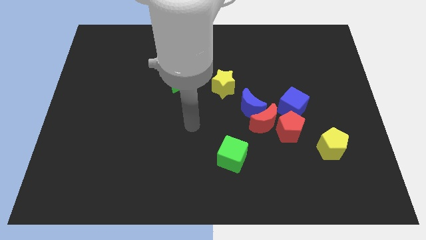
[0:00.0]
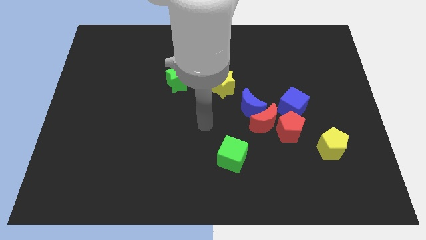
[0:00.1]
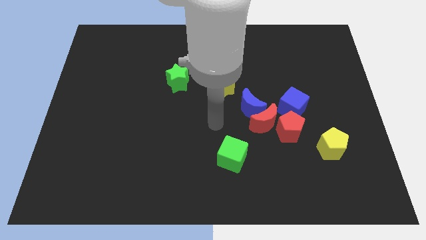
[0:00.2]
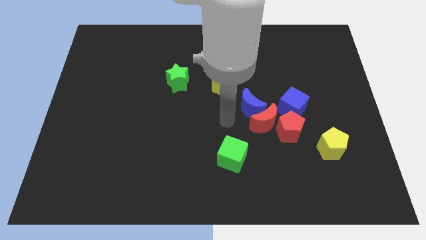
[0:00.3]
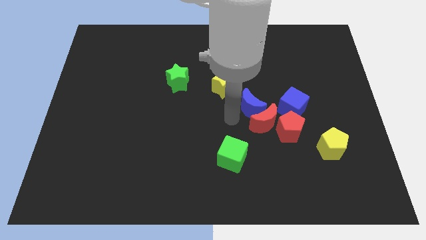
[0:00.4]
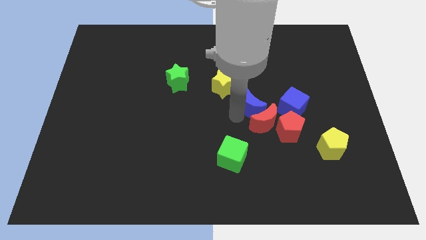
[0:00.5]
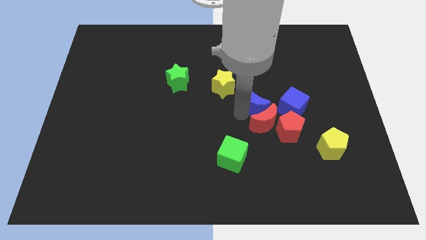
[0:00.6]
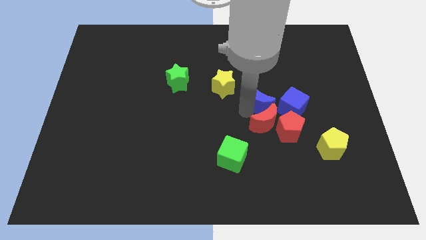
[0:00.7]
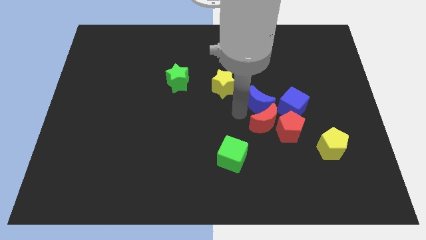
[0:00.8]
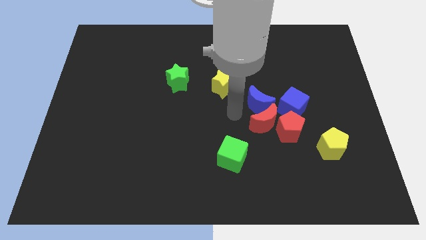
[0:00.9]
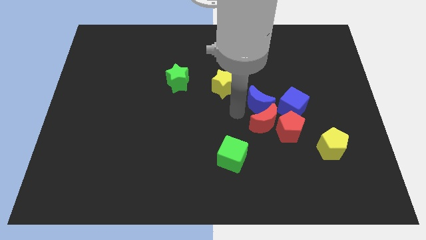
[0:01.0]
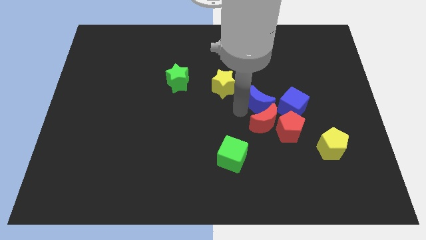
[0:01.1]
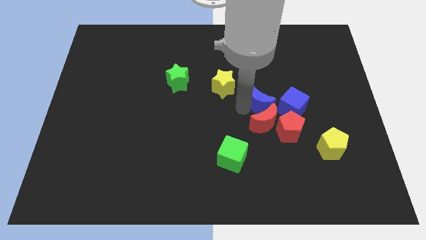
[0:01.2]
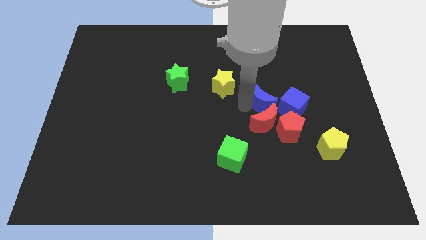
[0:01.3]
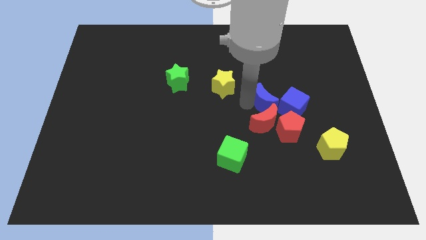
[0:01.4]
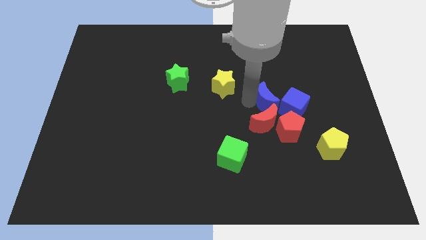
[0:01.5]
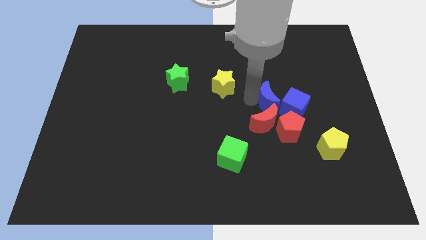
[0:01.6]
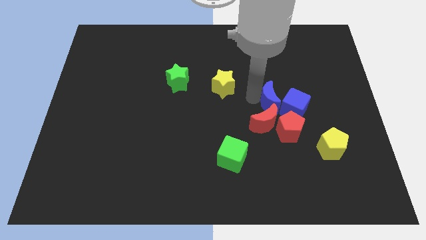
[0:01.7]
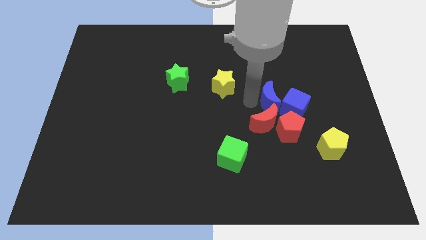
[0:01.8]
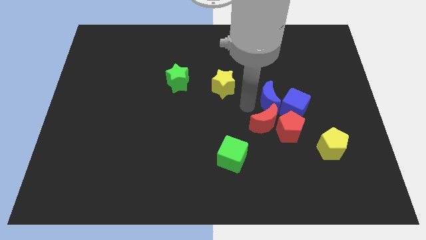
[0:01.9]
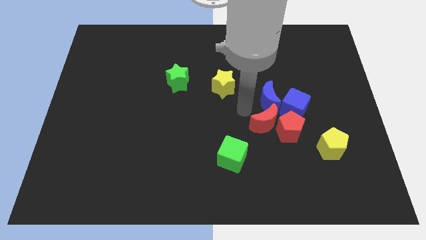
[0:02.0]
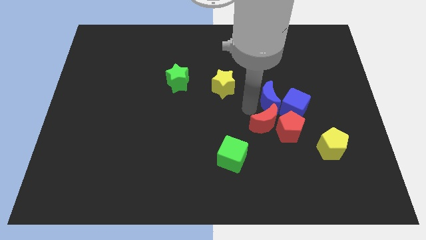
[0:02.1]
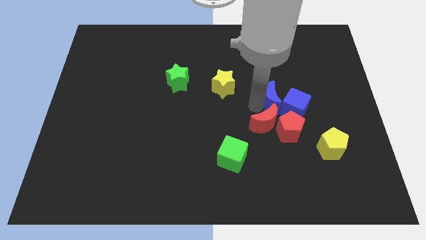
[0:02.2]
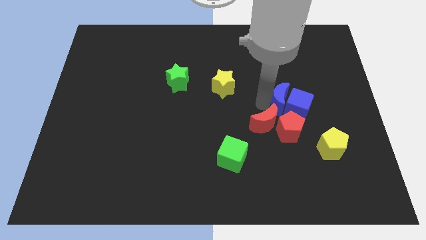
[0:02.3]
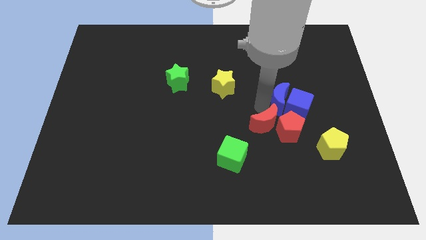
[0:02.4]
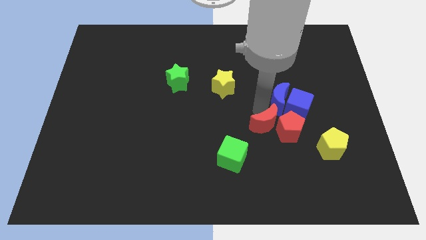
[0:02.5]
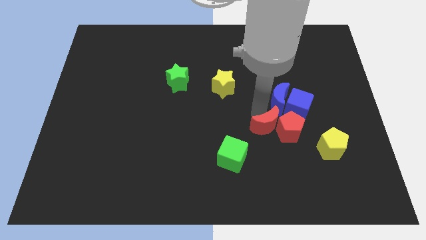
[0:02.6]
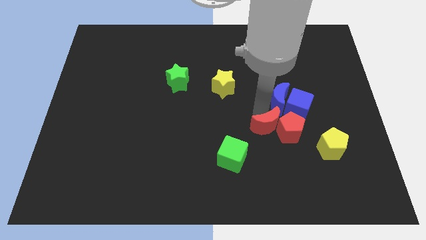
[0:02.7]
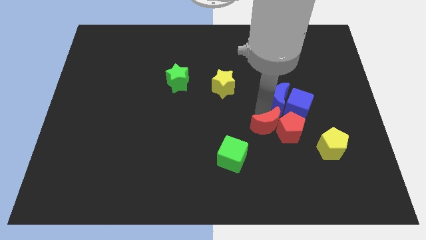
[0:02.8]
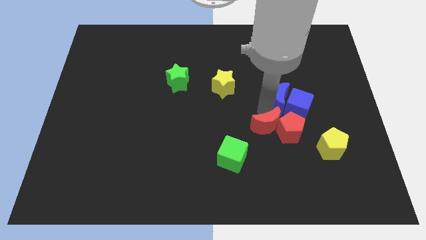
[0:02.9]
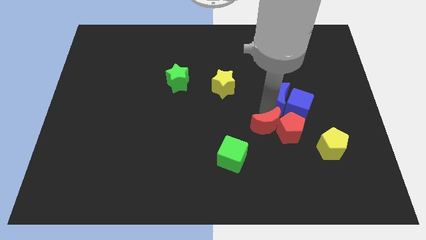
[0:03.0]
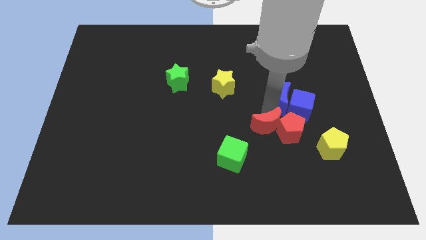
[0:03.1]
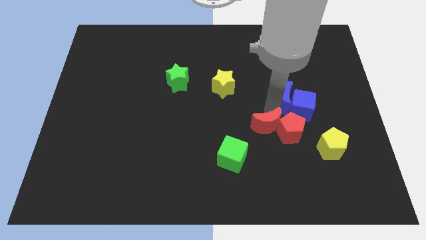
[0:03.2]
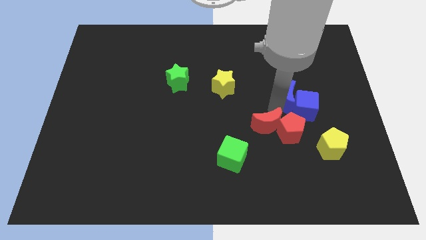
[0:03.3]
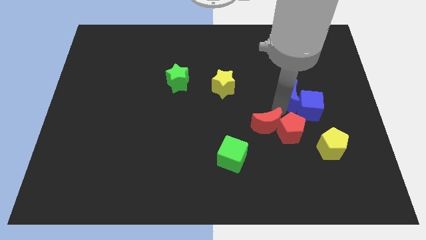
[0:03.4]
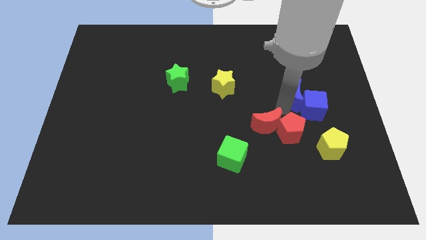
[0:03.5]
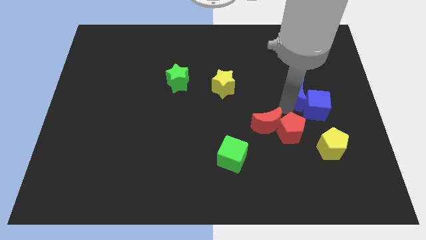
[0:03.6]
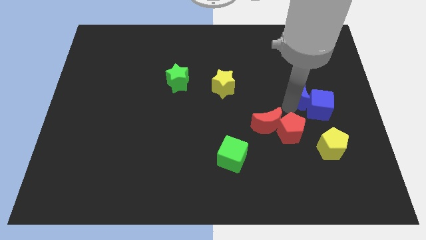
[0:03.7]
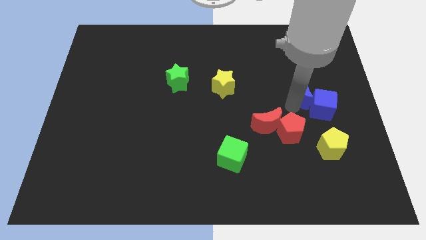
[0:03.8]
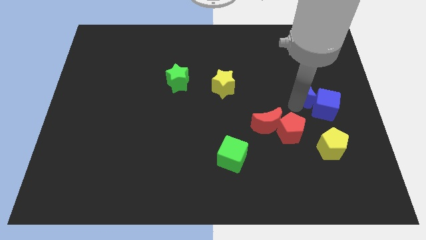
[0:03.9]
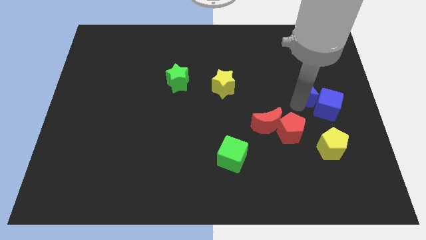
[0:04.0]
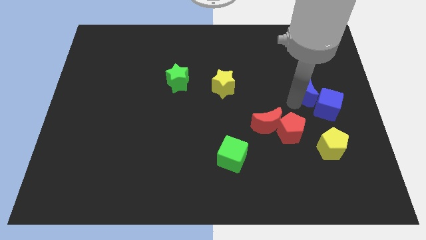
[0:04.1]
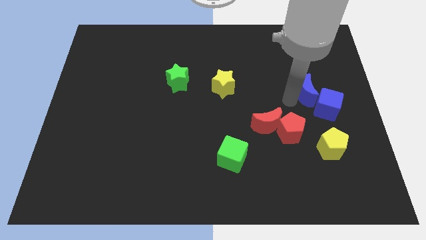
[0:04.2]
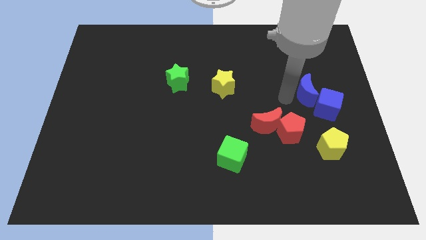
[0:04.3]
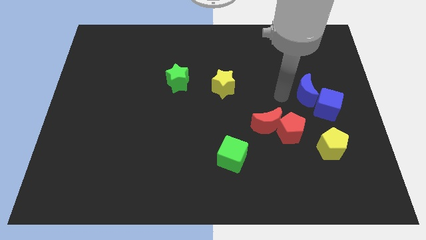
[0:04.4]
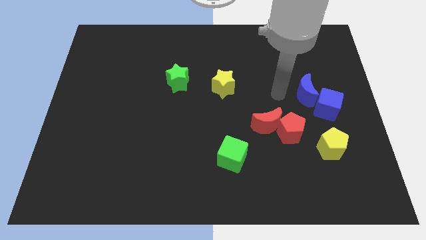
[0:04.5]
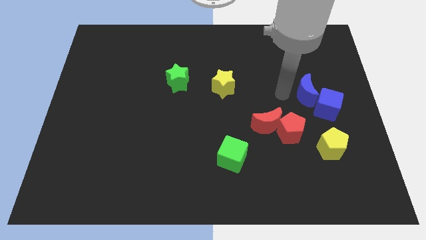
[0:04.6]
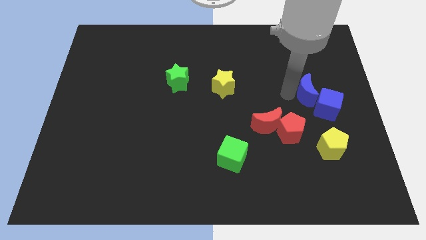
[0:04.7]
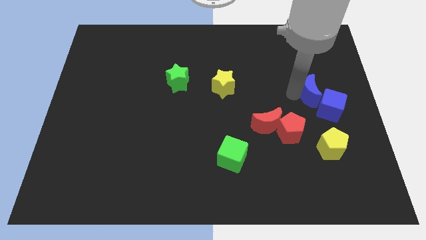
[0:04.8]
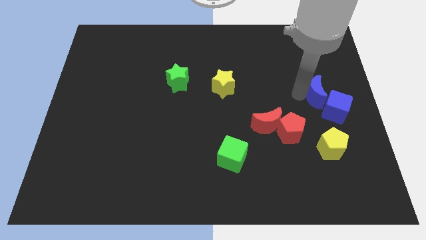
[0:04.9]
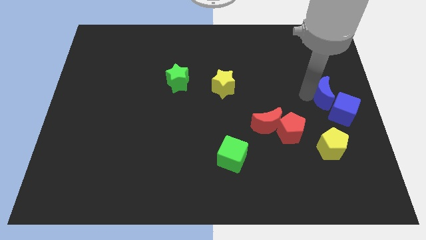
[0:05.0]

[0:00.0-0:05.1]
move the blue moon to the right side

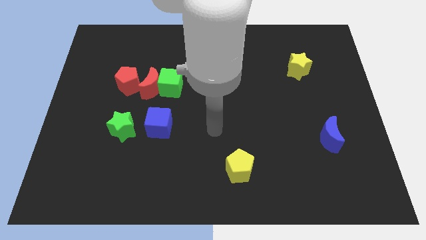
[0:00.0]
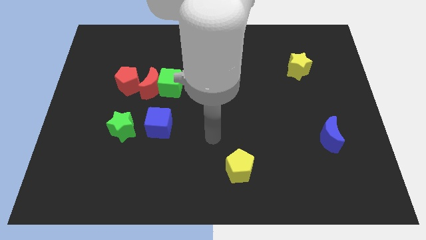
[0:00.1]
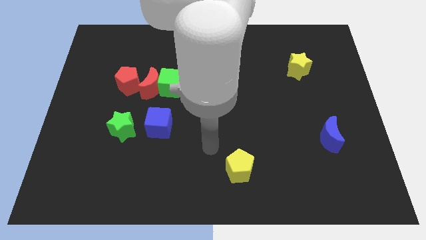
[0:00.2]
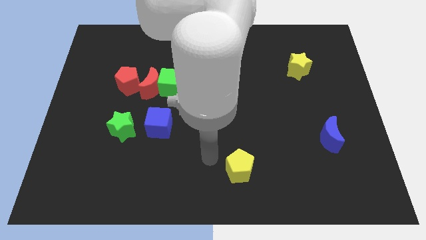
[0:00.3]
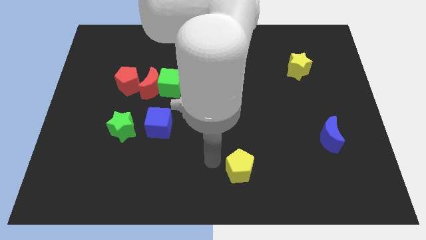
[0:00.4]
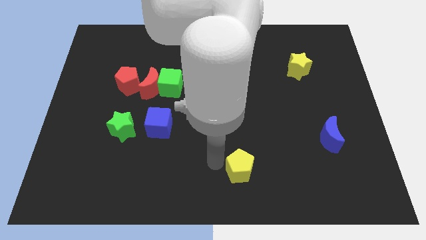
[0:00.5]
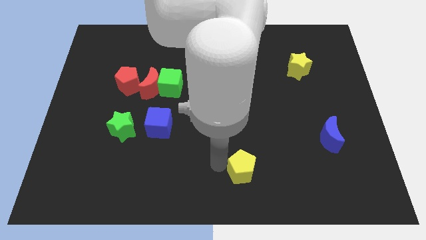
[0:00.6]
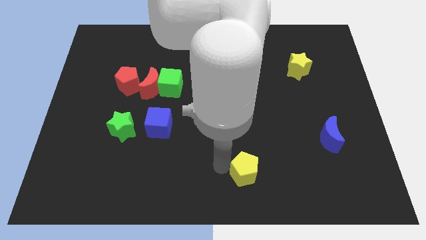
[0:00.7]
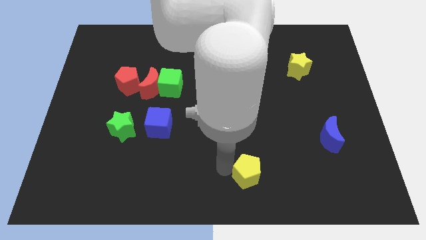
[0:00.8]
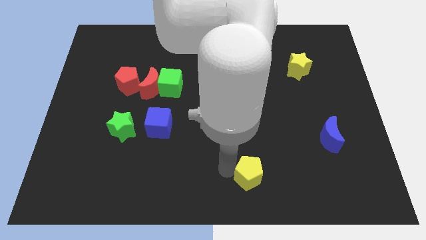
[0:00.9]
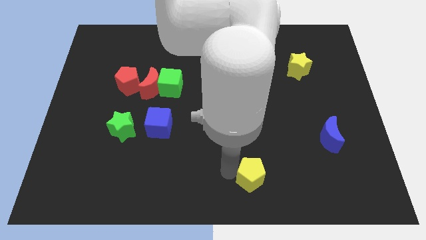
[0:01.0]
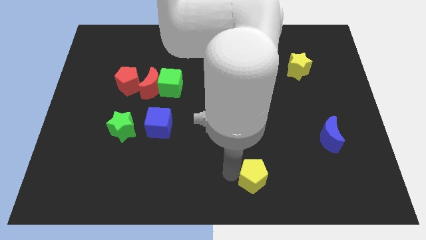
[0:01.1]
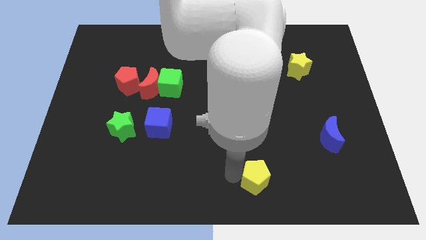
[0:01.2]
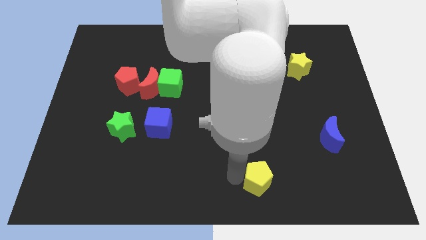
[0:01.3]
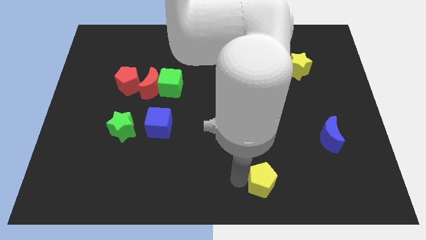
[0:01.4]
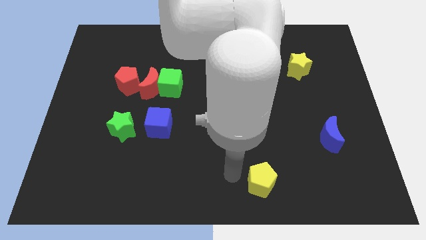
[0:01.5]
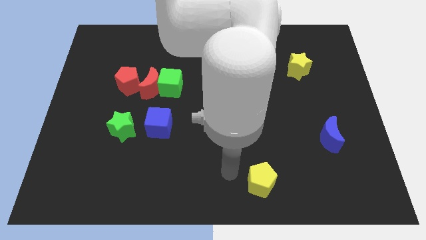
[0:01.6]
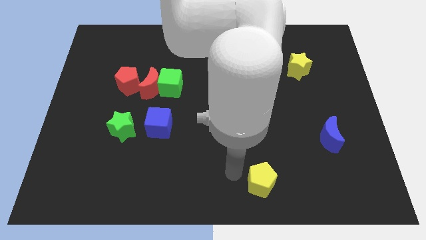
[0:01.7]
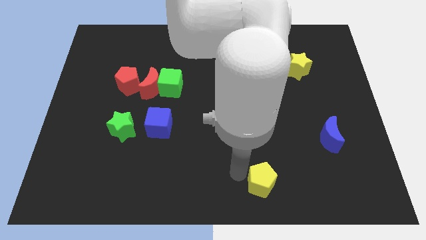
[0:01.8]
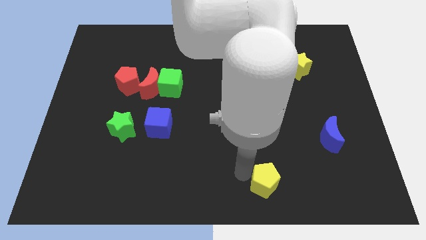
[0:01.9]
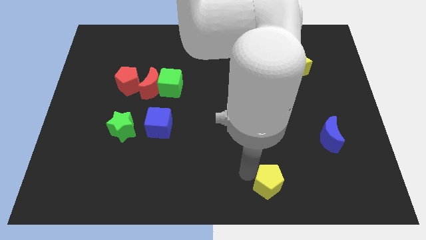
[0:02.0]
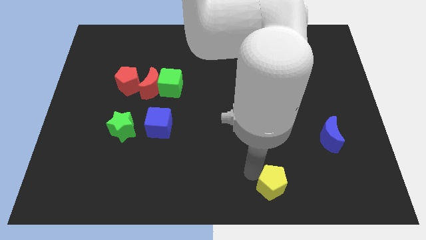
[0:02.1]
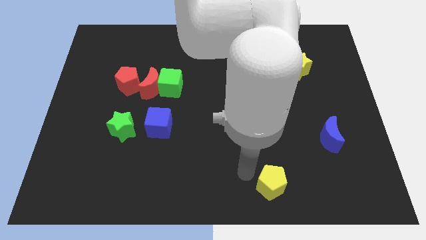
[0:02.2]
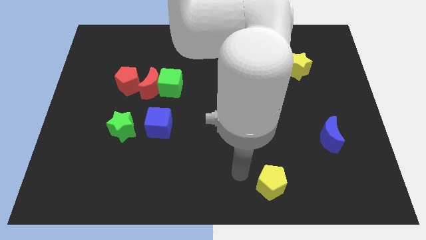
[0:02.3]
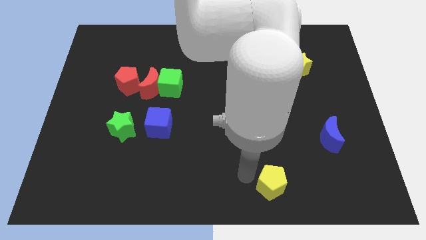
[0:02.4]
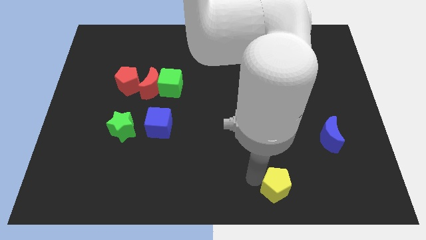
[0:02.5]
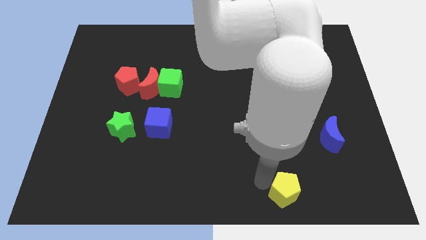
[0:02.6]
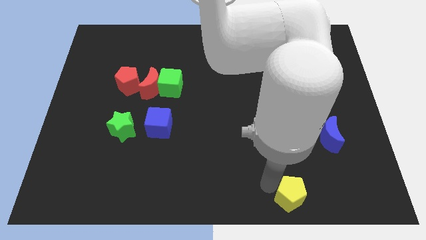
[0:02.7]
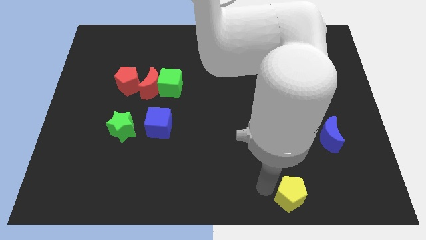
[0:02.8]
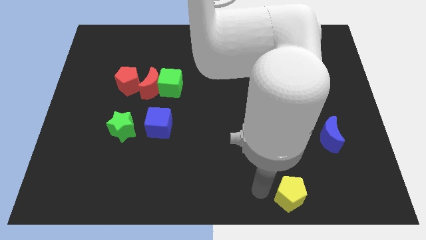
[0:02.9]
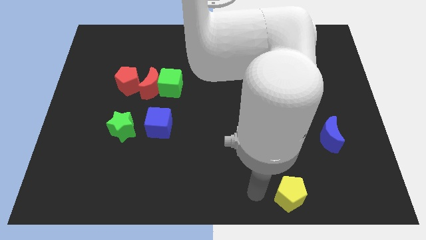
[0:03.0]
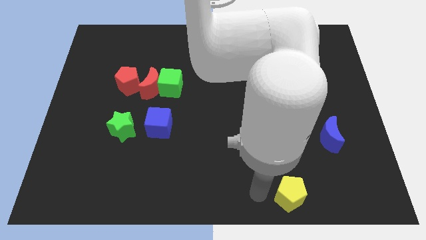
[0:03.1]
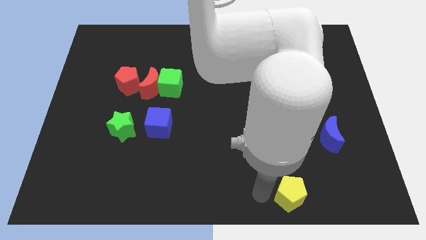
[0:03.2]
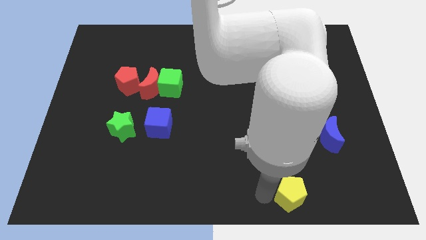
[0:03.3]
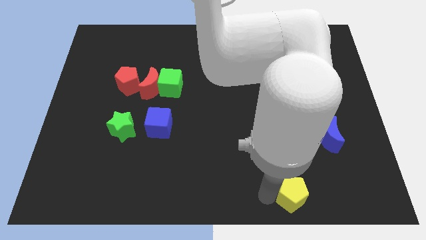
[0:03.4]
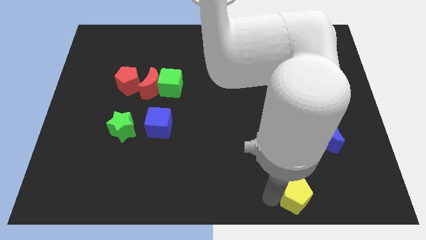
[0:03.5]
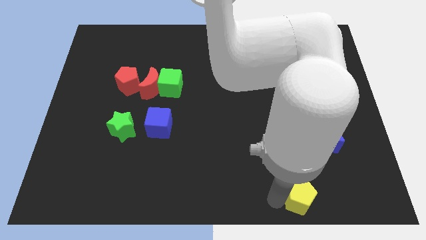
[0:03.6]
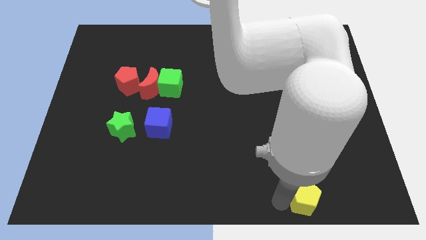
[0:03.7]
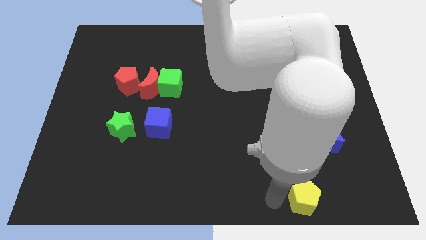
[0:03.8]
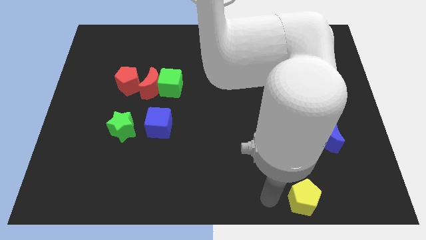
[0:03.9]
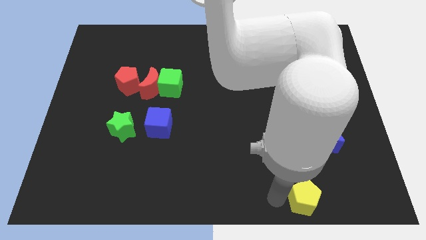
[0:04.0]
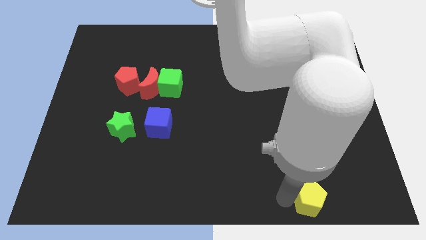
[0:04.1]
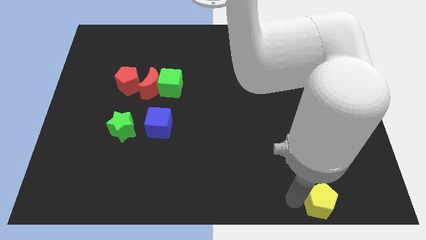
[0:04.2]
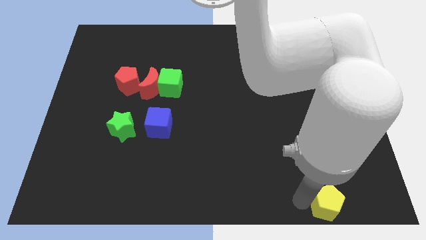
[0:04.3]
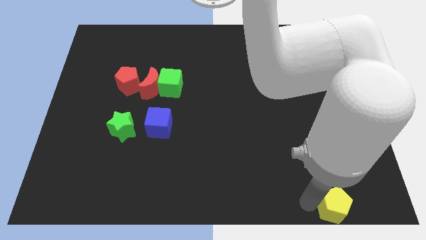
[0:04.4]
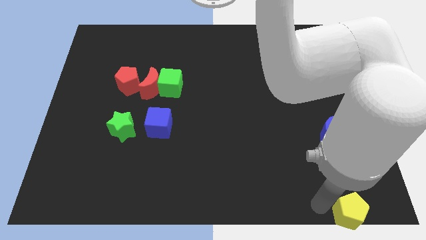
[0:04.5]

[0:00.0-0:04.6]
slide the yellow pentagon to the bottom right of the board
